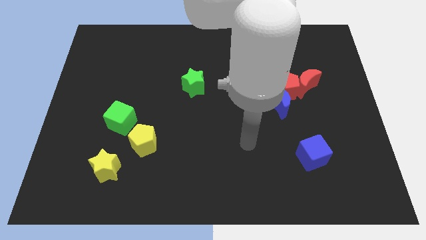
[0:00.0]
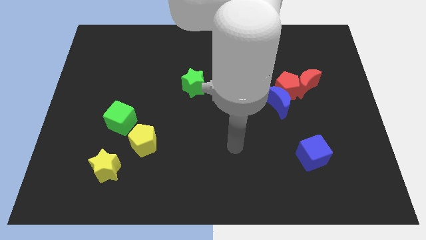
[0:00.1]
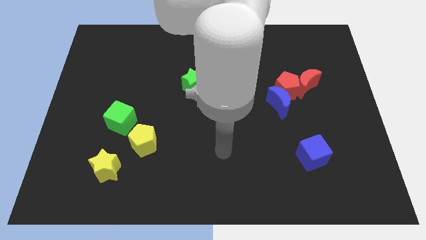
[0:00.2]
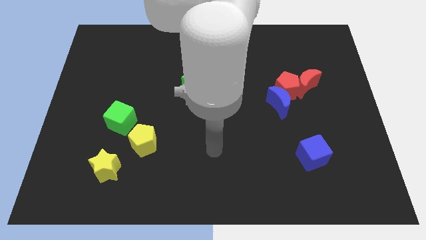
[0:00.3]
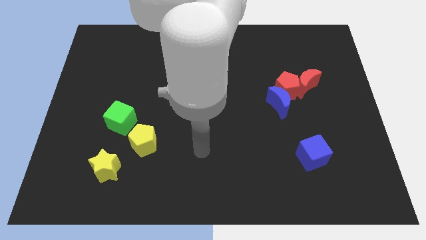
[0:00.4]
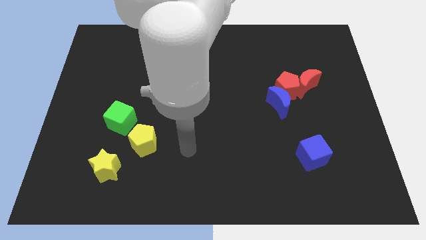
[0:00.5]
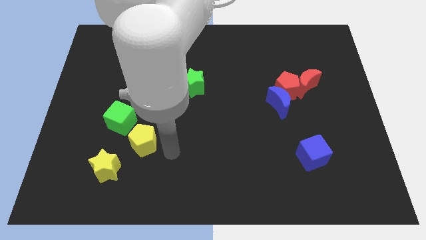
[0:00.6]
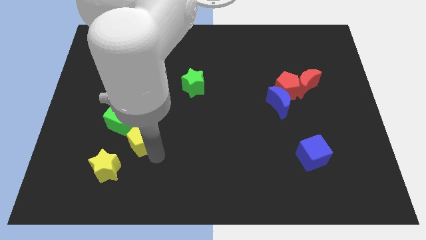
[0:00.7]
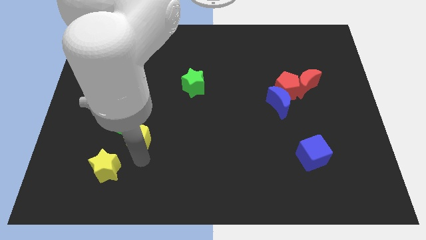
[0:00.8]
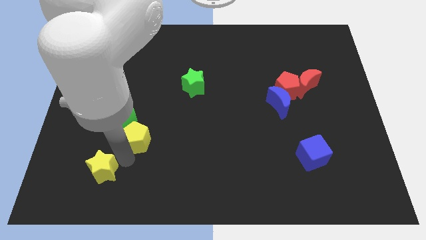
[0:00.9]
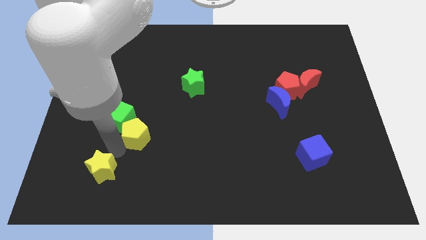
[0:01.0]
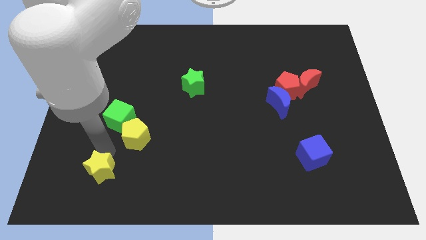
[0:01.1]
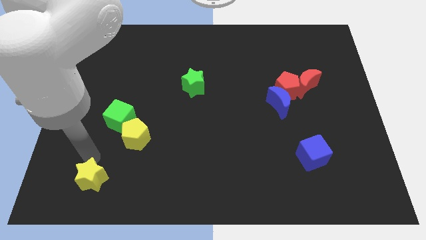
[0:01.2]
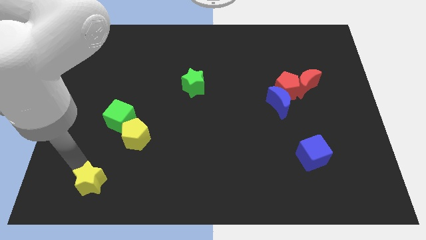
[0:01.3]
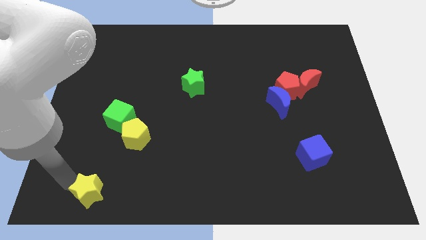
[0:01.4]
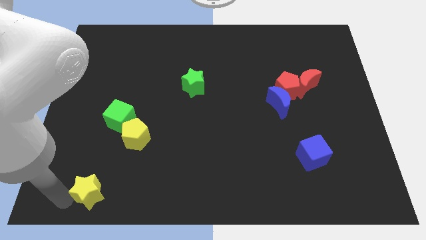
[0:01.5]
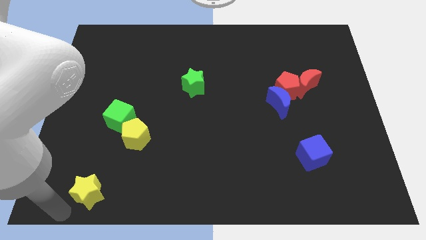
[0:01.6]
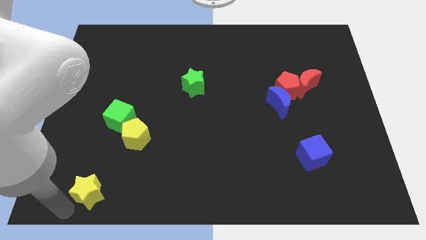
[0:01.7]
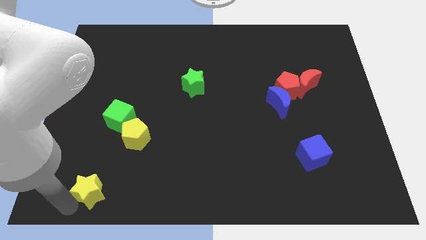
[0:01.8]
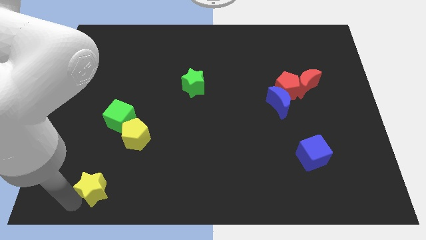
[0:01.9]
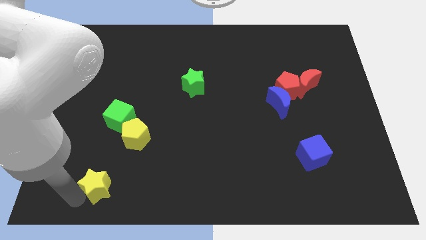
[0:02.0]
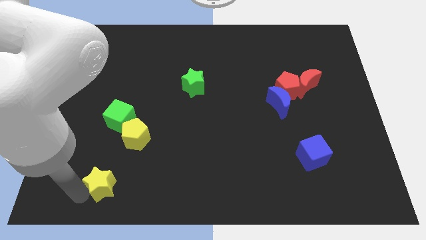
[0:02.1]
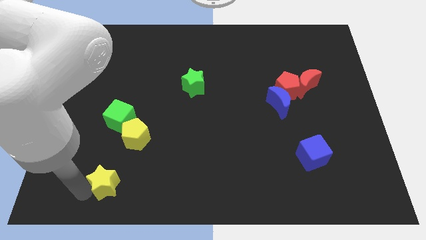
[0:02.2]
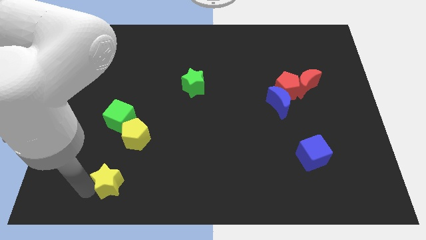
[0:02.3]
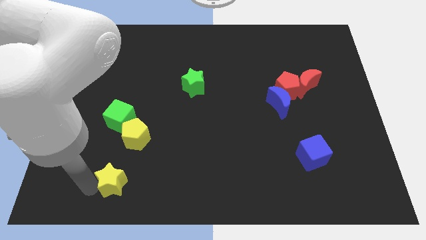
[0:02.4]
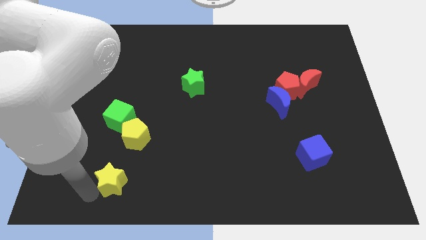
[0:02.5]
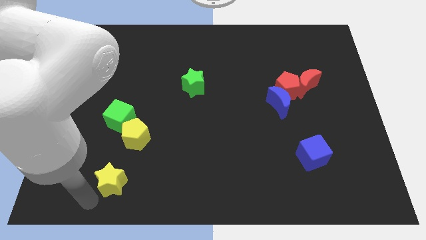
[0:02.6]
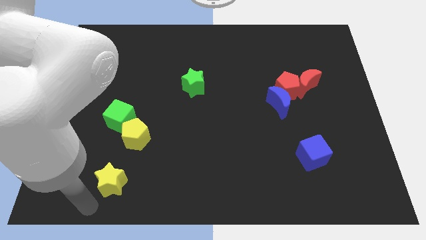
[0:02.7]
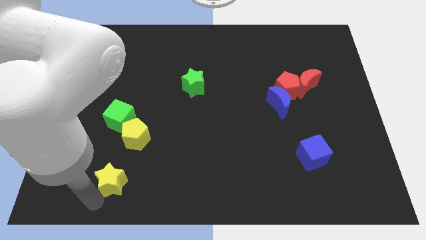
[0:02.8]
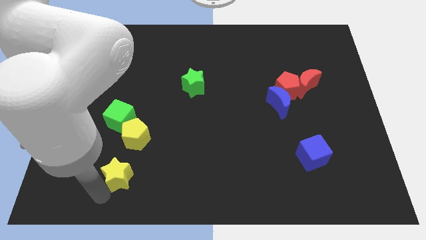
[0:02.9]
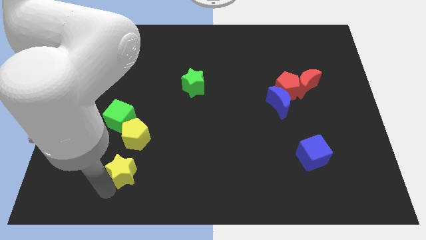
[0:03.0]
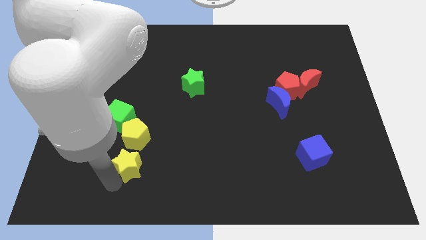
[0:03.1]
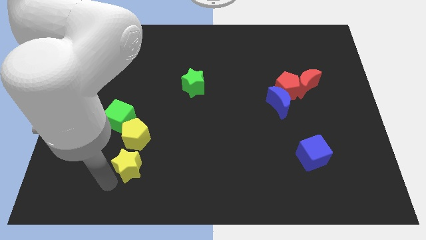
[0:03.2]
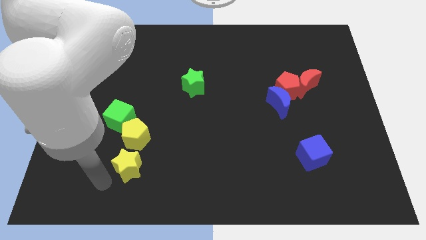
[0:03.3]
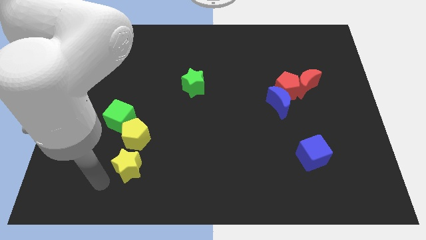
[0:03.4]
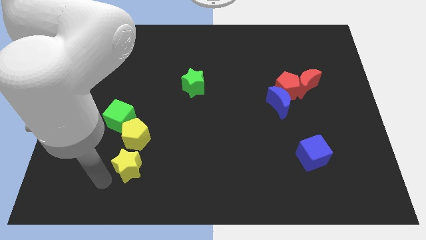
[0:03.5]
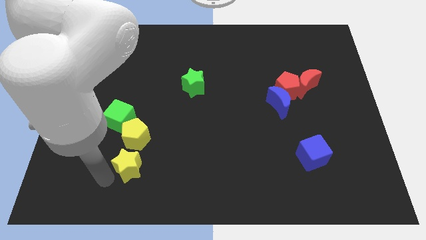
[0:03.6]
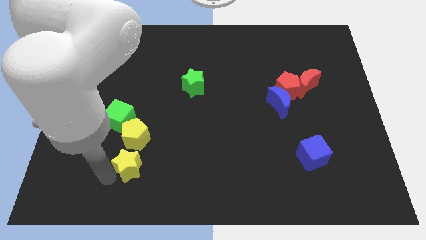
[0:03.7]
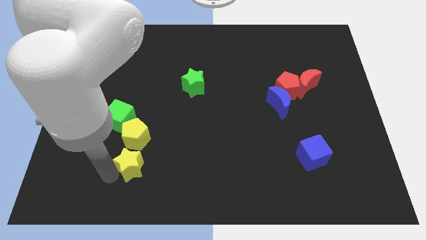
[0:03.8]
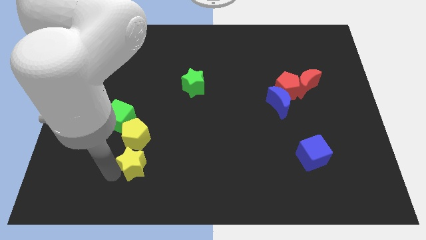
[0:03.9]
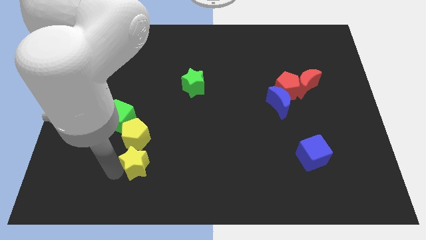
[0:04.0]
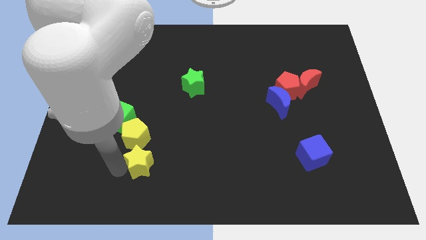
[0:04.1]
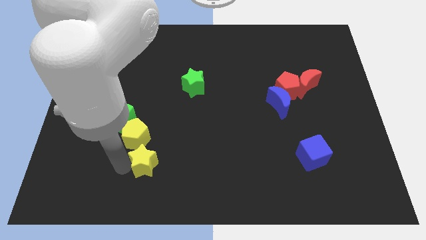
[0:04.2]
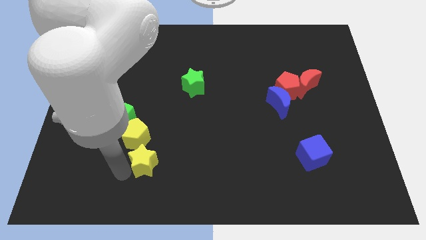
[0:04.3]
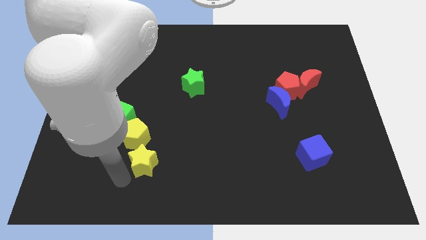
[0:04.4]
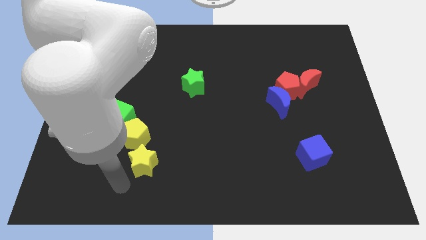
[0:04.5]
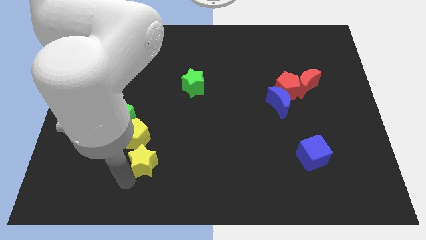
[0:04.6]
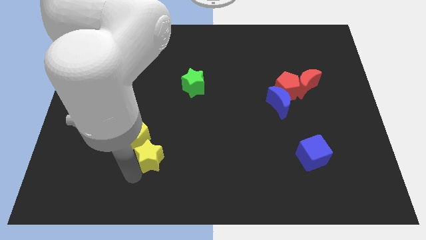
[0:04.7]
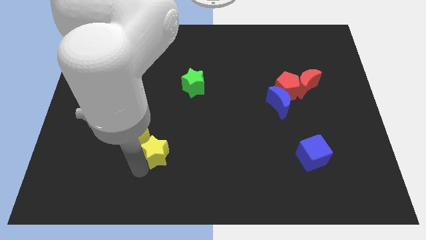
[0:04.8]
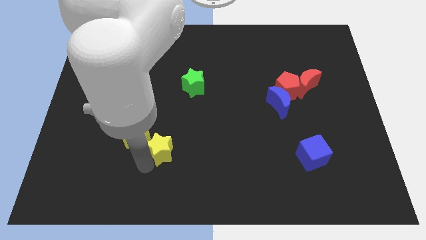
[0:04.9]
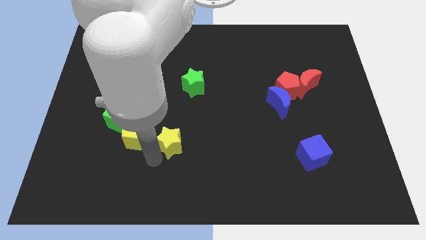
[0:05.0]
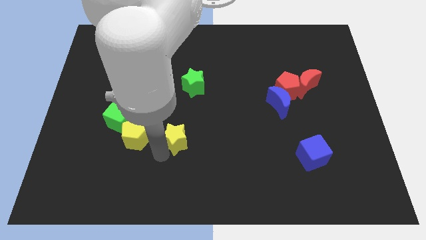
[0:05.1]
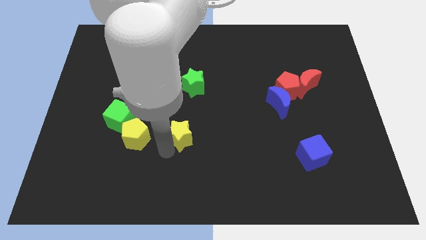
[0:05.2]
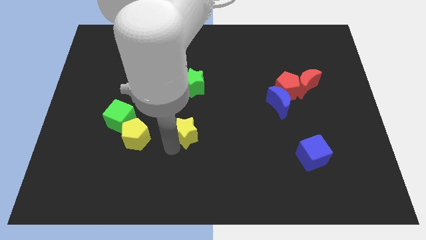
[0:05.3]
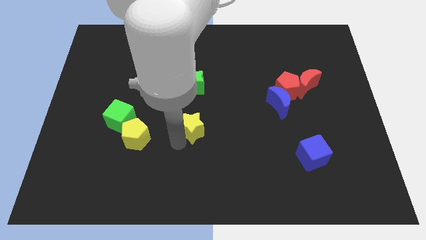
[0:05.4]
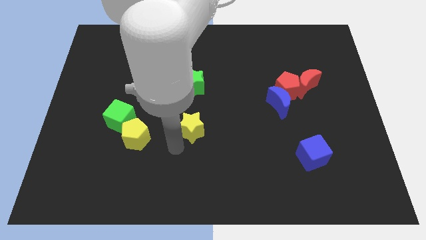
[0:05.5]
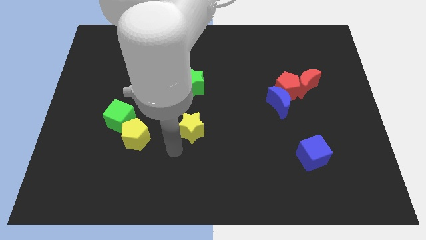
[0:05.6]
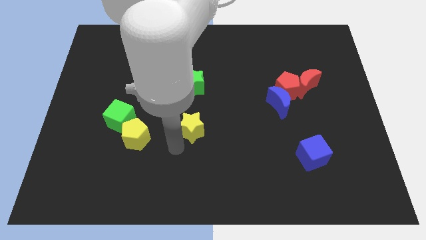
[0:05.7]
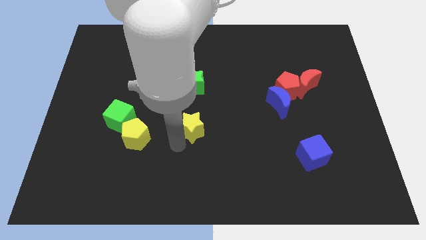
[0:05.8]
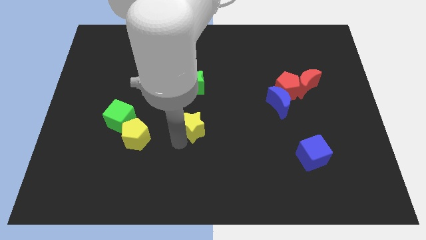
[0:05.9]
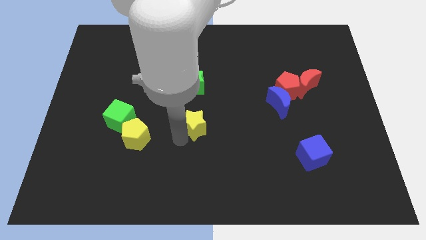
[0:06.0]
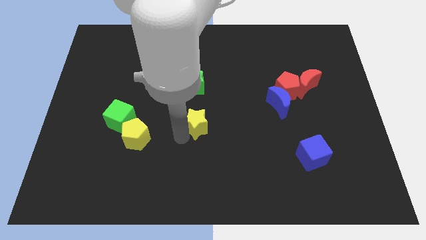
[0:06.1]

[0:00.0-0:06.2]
move the yellow star diagonally up and to the right

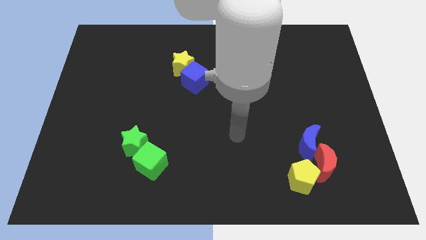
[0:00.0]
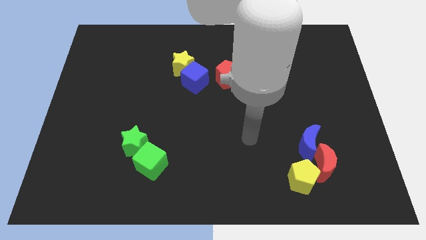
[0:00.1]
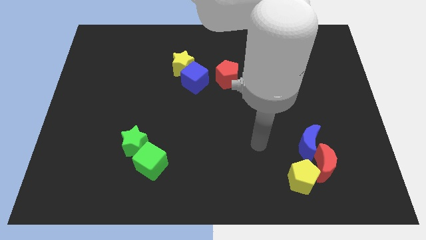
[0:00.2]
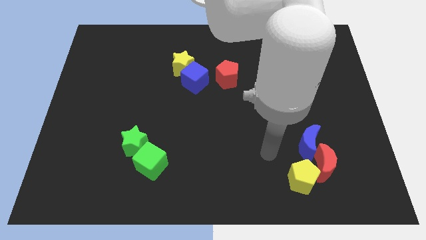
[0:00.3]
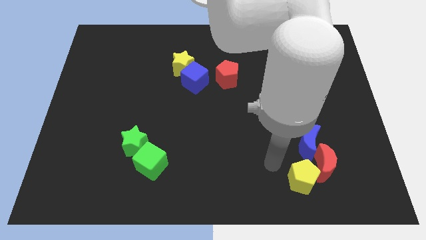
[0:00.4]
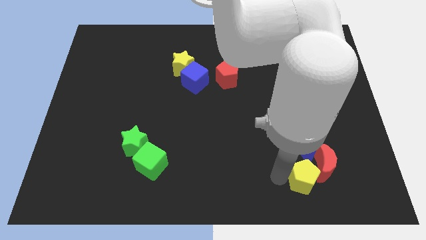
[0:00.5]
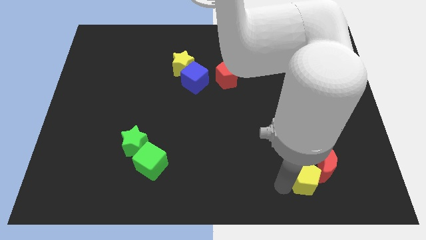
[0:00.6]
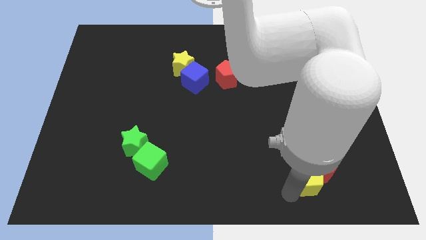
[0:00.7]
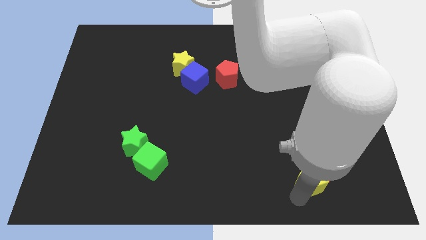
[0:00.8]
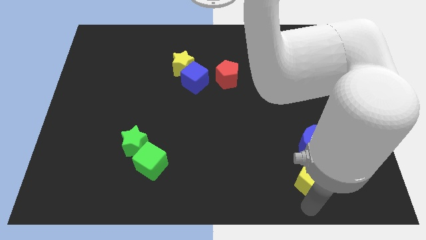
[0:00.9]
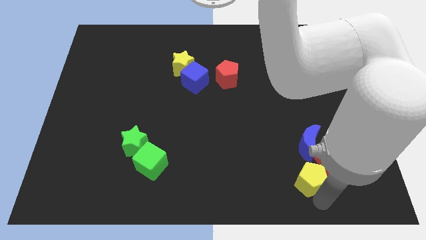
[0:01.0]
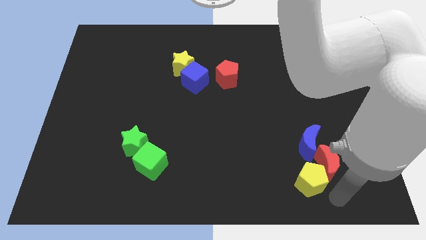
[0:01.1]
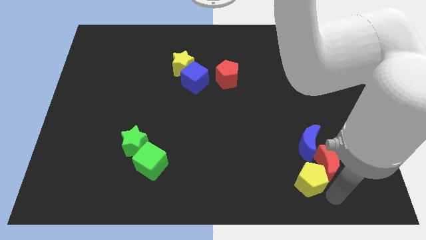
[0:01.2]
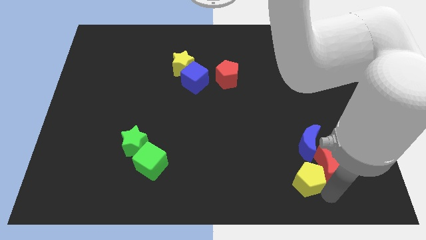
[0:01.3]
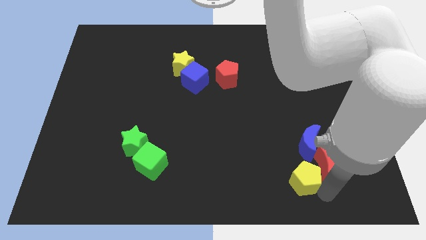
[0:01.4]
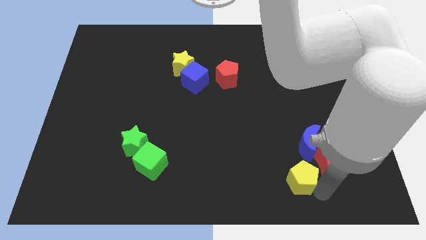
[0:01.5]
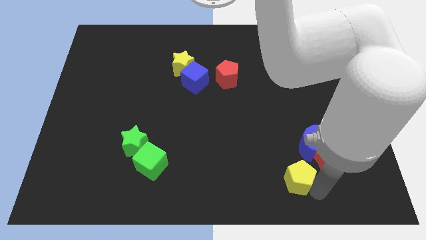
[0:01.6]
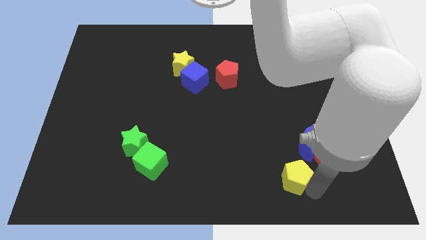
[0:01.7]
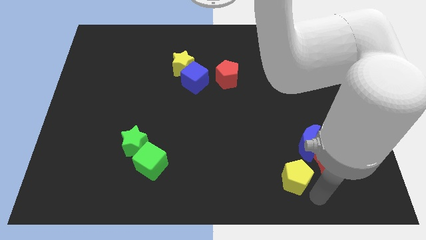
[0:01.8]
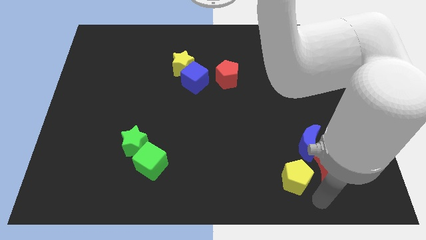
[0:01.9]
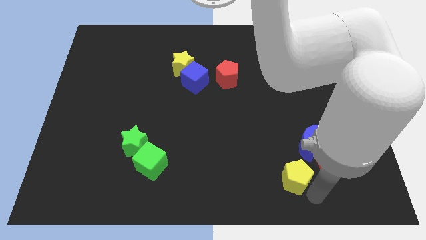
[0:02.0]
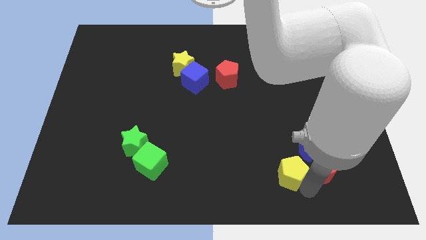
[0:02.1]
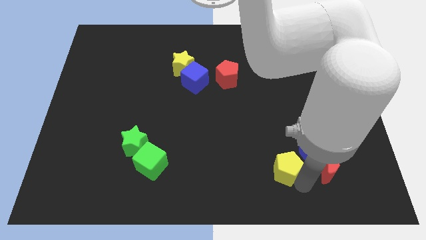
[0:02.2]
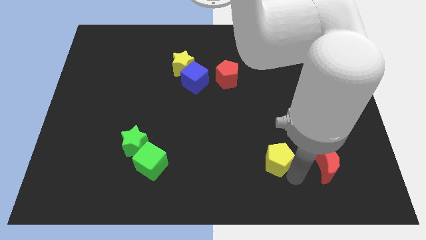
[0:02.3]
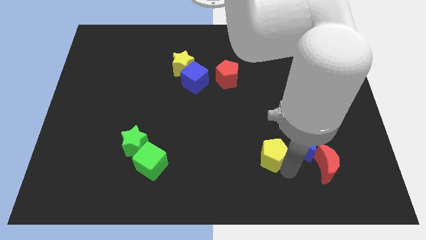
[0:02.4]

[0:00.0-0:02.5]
slightly slide the yellow pentagon upwards and to the left diagonally
